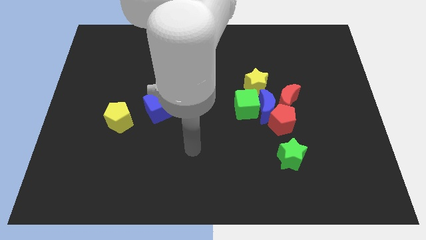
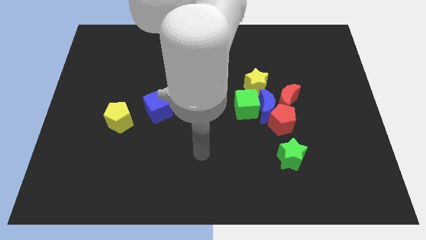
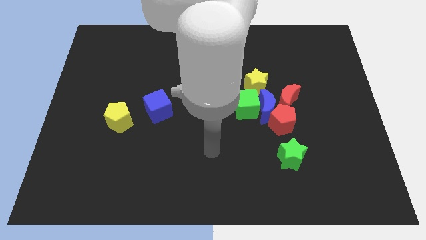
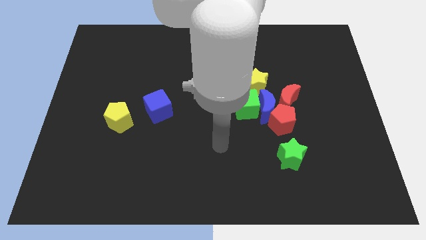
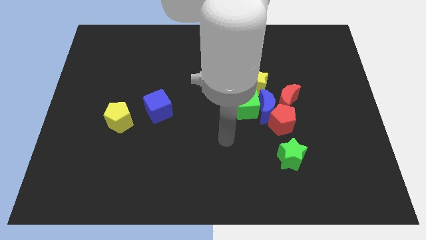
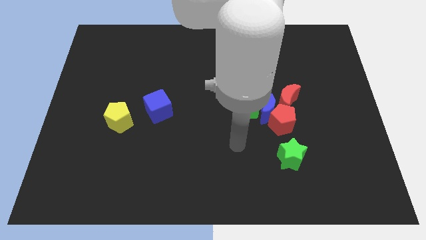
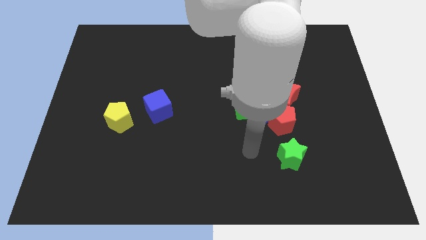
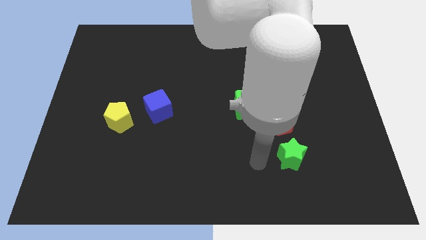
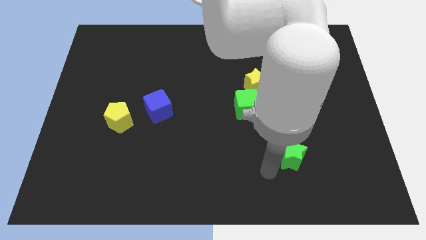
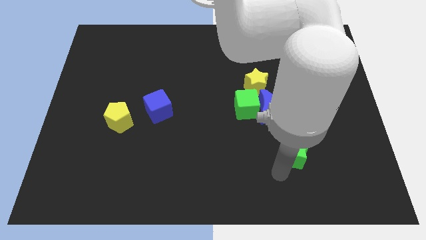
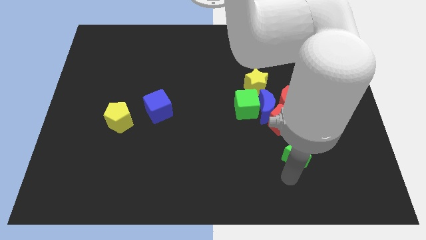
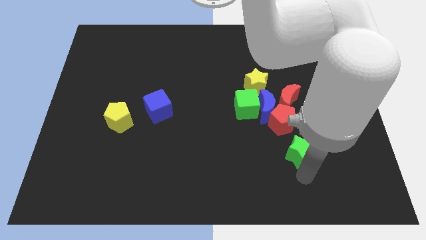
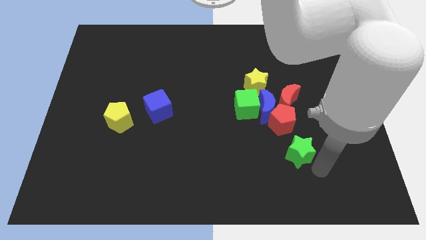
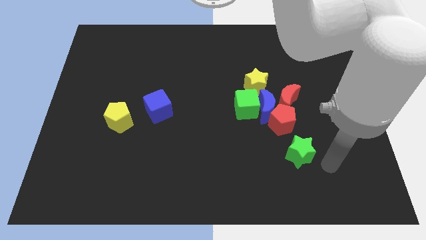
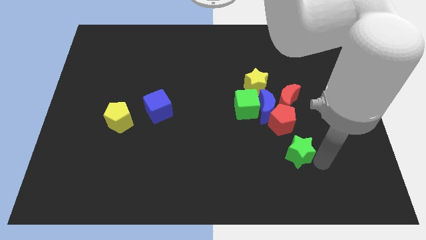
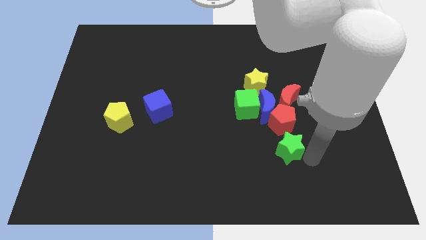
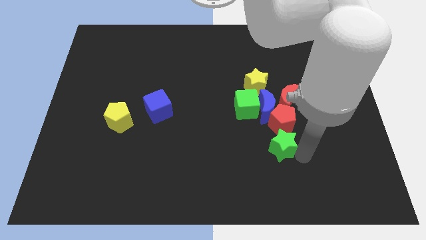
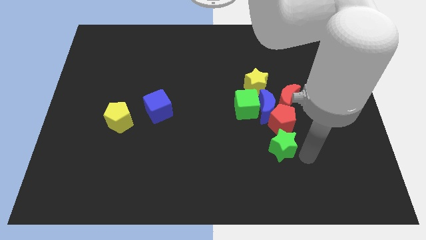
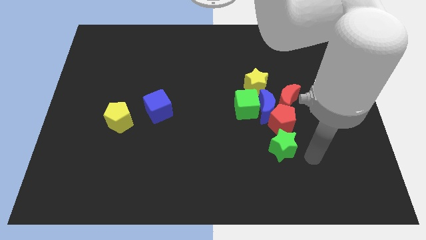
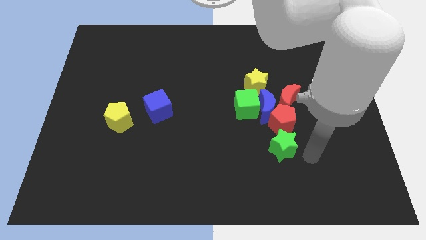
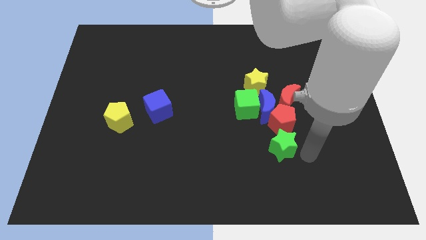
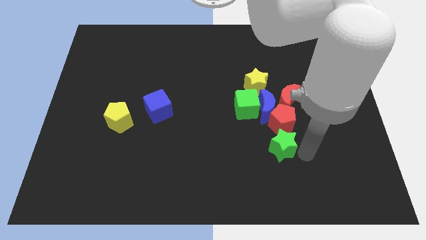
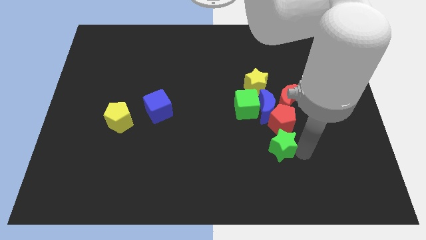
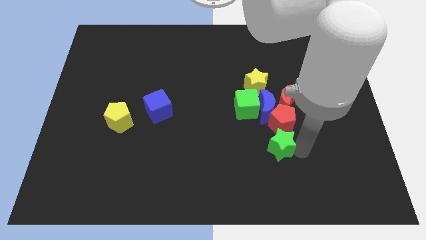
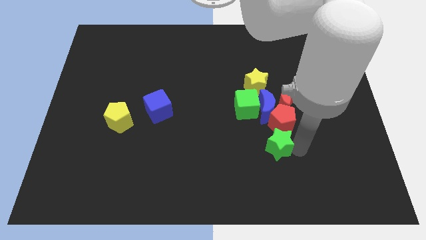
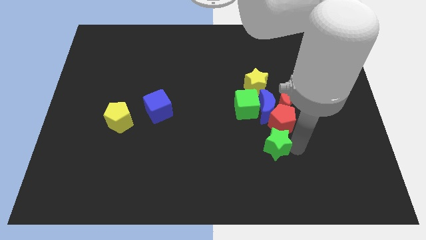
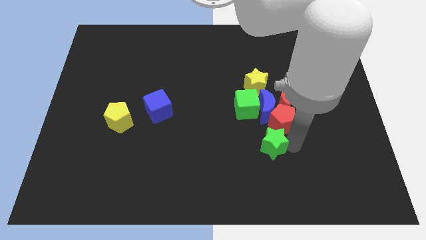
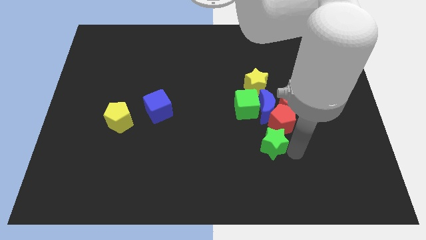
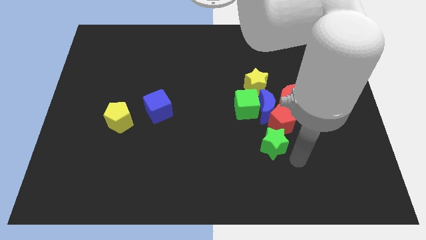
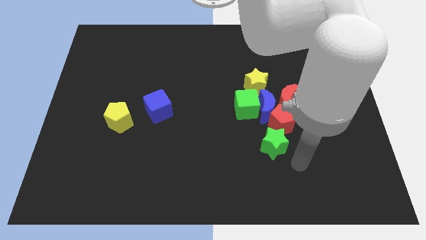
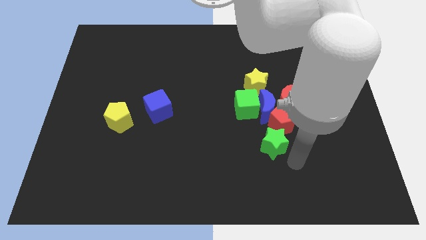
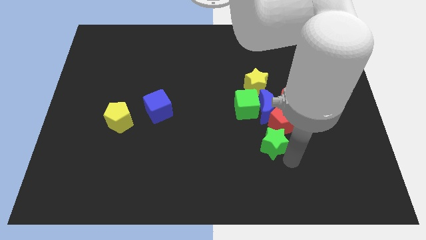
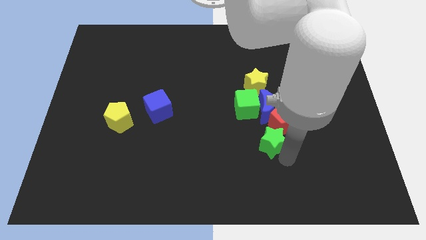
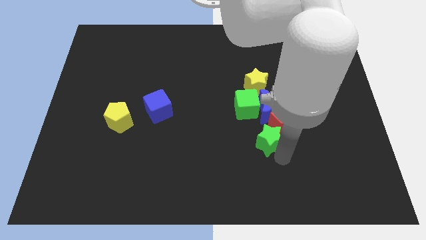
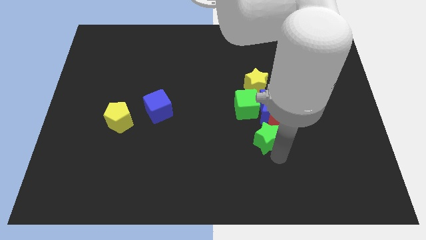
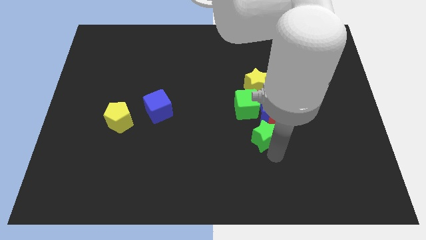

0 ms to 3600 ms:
push the green star diagonally up and to the left somewhat

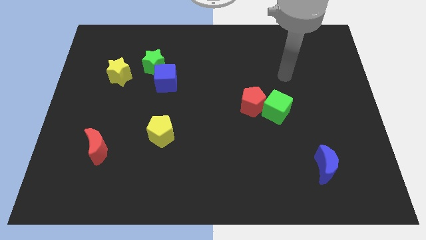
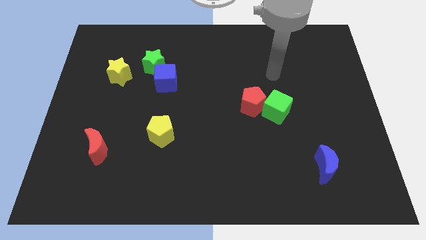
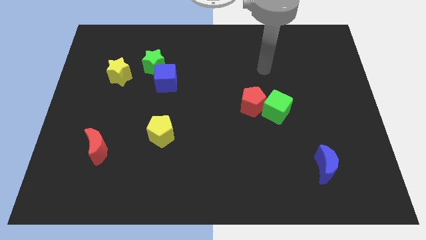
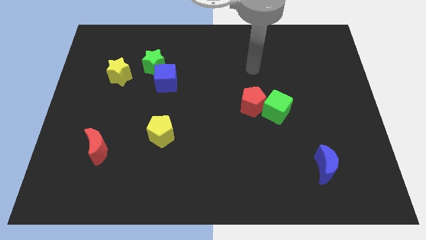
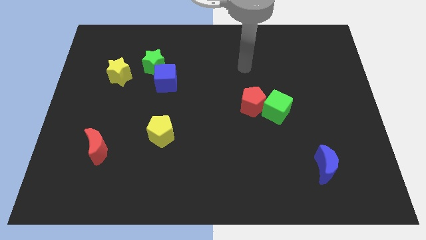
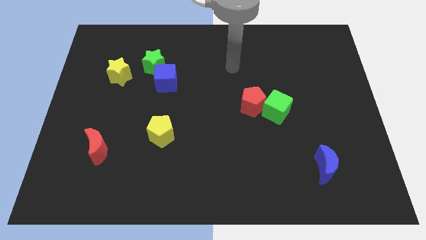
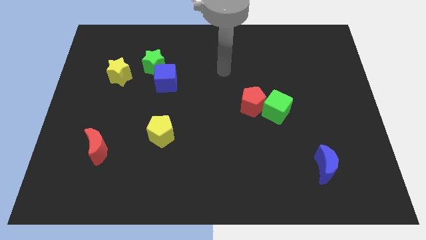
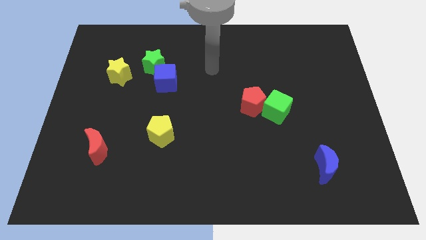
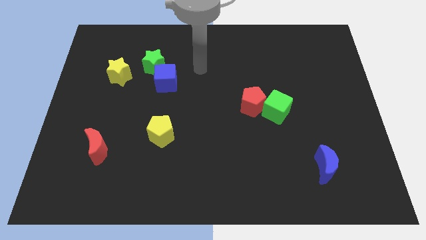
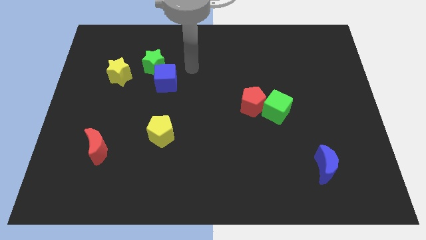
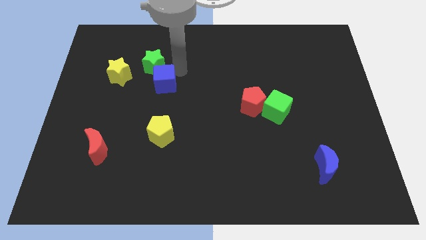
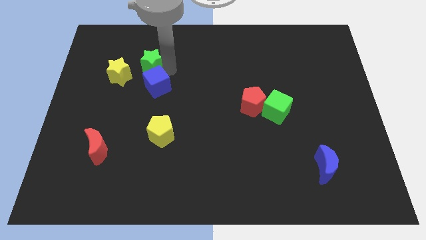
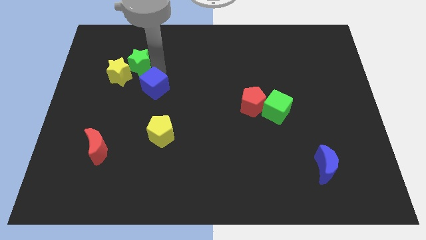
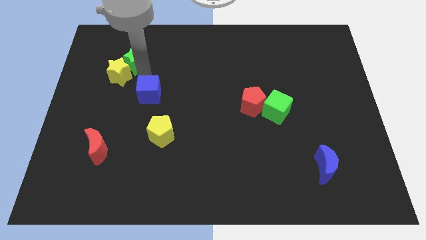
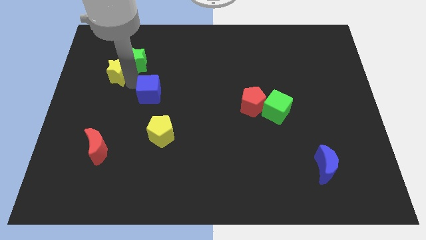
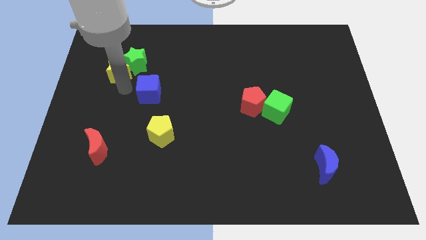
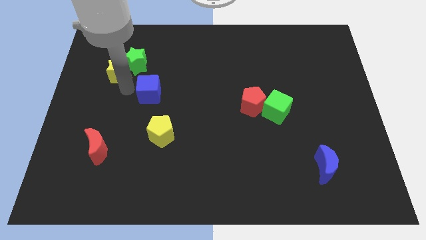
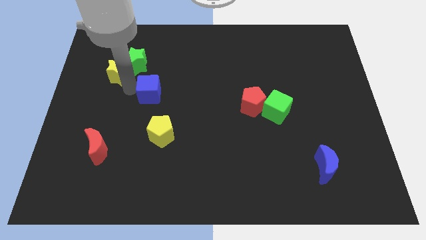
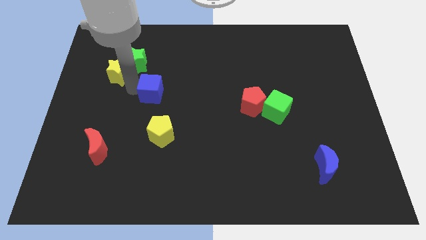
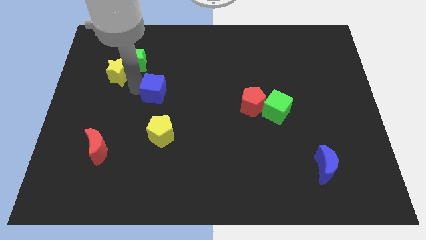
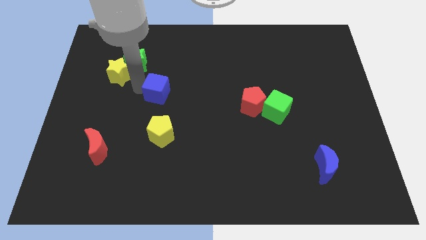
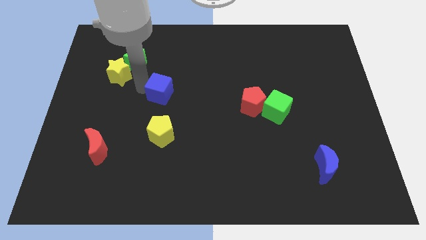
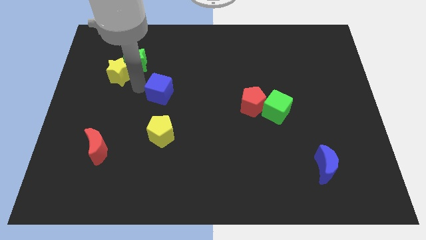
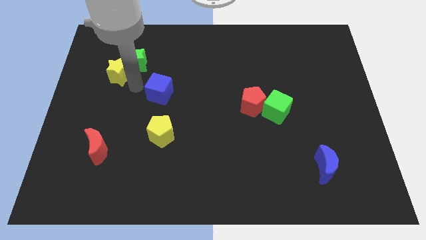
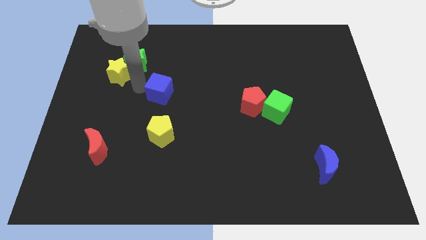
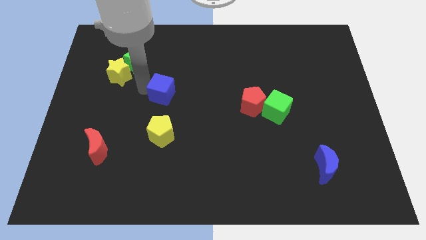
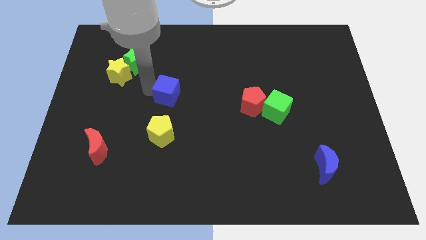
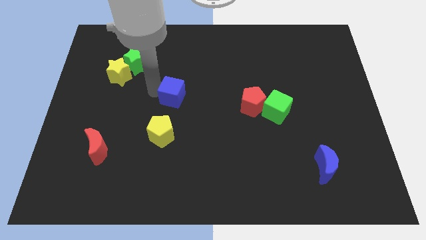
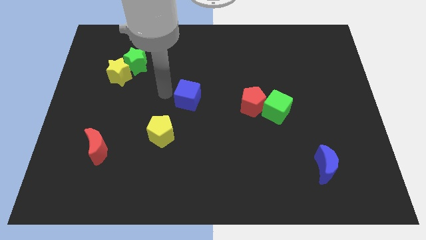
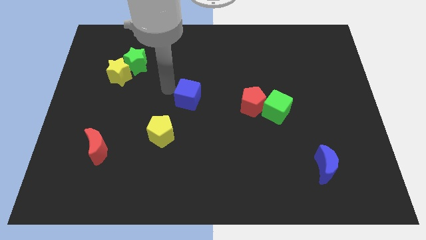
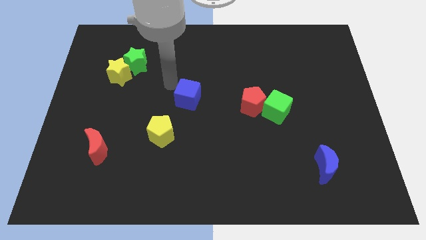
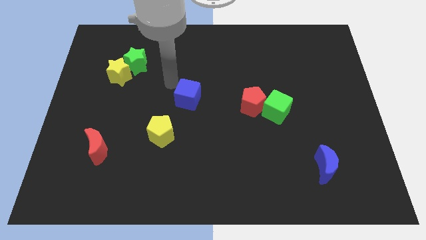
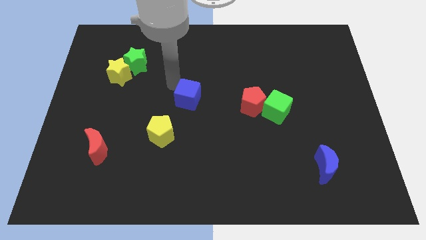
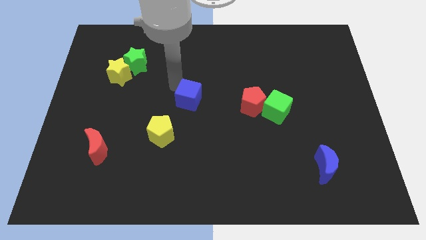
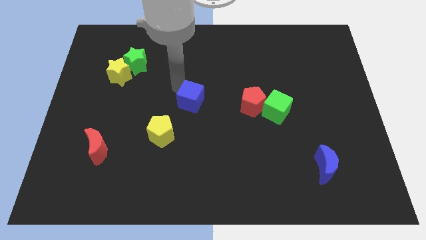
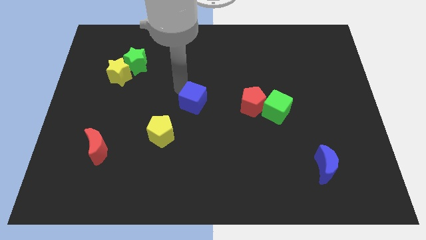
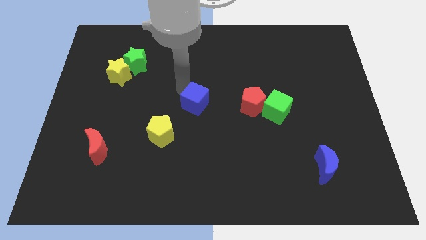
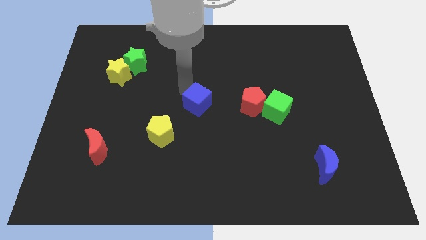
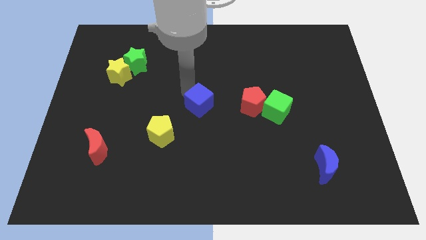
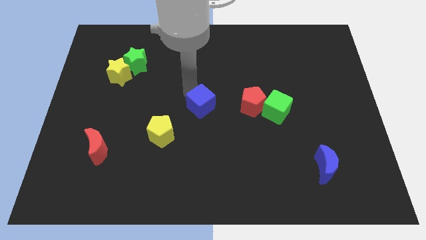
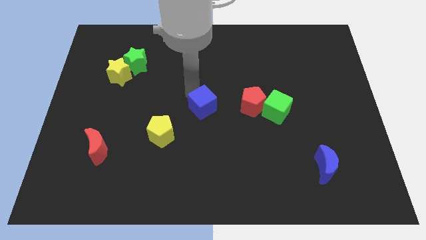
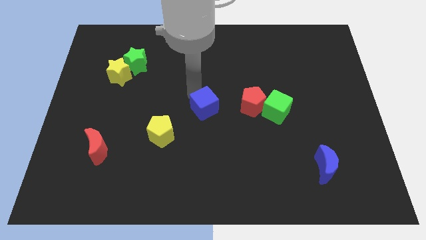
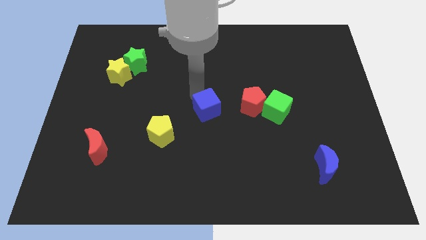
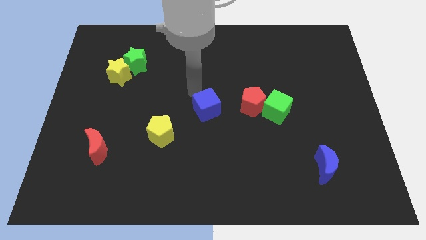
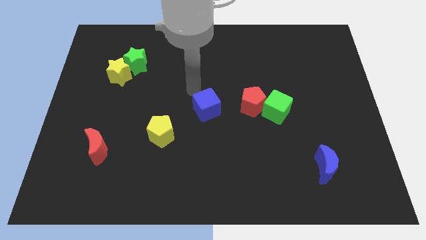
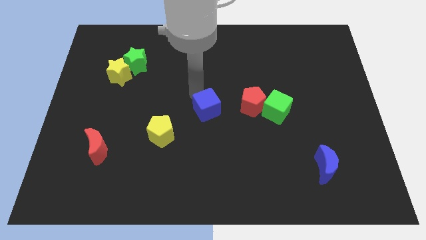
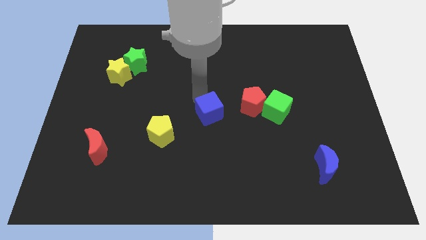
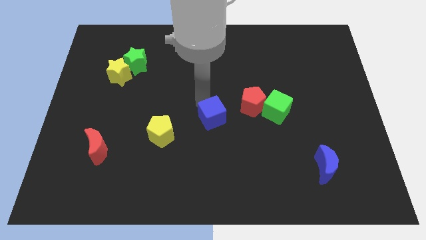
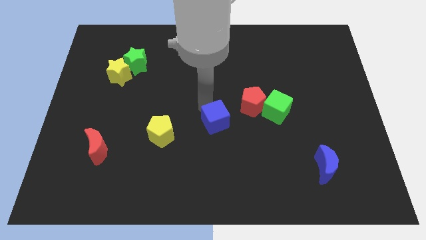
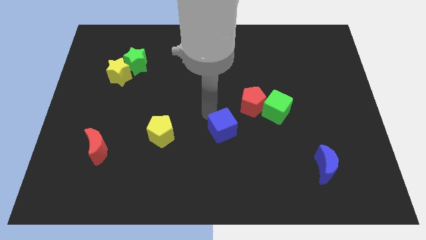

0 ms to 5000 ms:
slide the blue cube down and to the right
